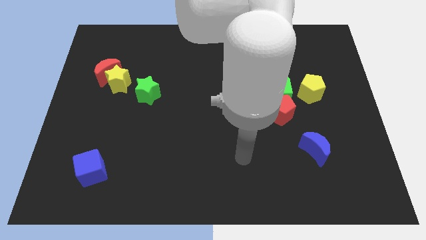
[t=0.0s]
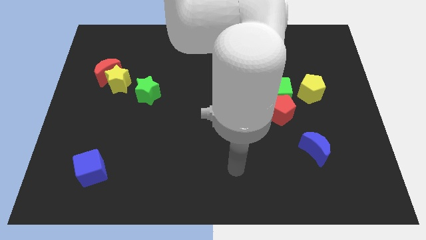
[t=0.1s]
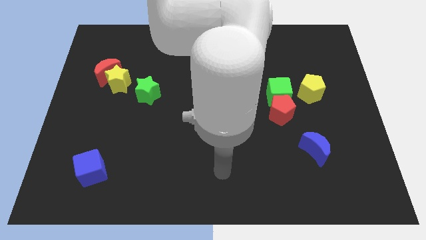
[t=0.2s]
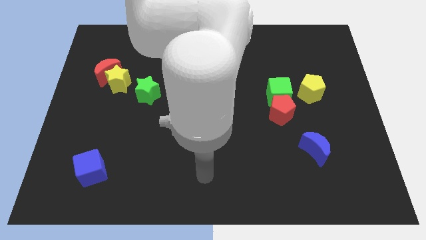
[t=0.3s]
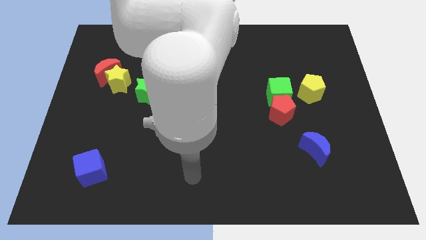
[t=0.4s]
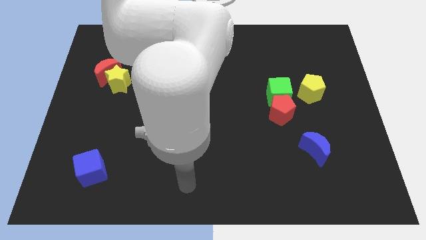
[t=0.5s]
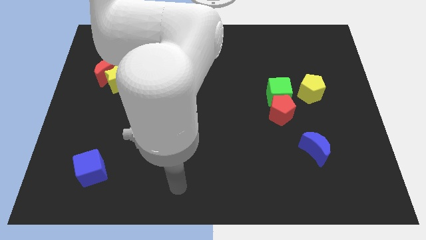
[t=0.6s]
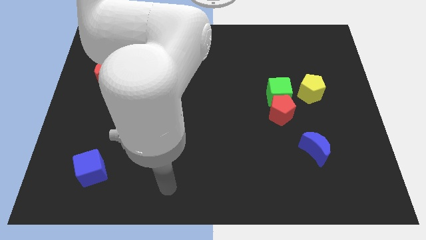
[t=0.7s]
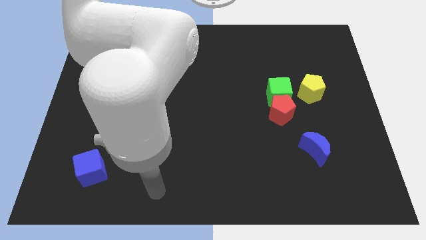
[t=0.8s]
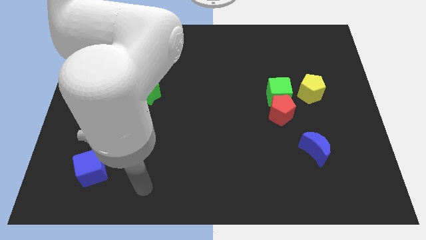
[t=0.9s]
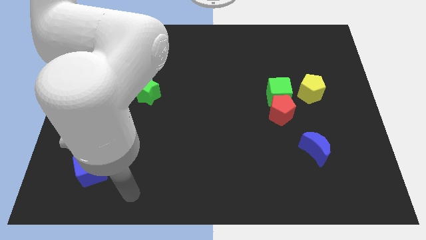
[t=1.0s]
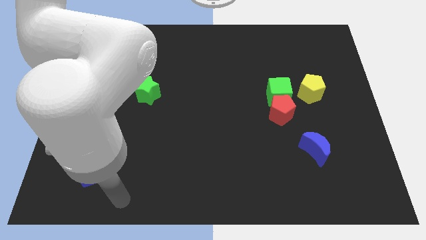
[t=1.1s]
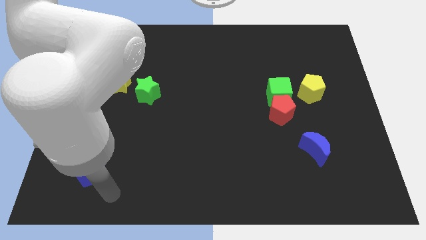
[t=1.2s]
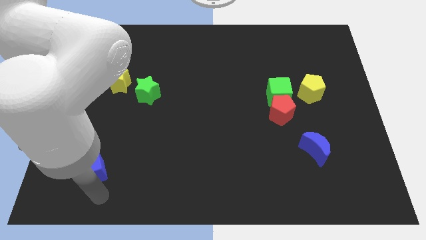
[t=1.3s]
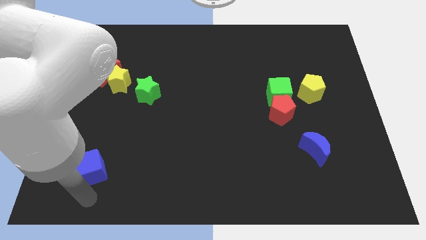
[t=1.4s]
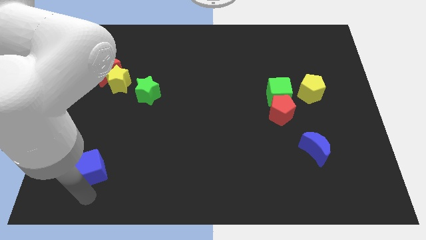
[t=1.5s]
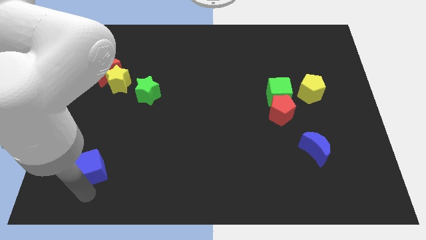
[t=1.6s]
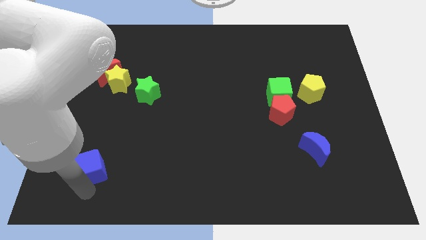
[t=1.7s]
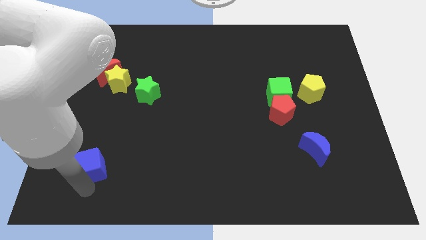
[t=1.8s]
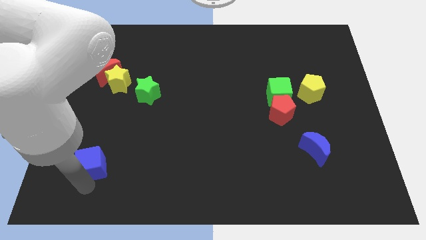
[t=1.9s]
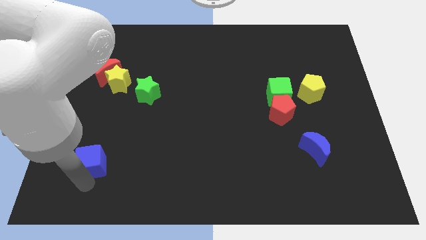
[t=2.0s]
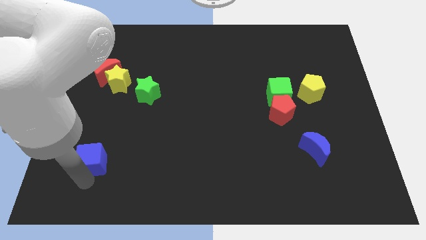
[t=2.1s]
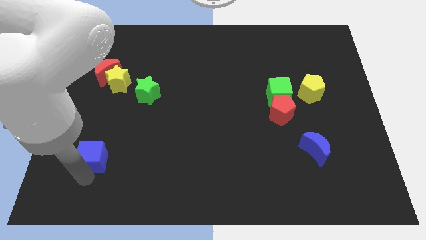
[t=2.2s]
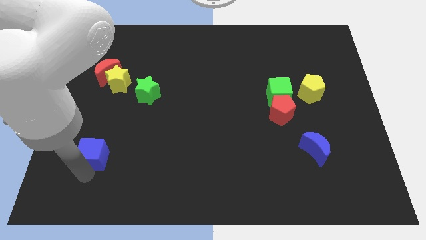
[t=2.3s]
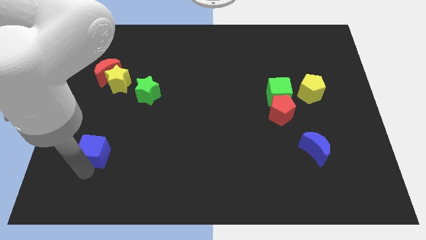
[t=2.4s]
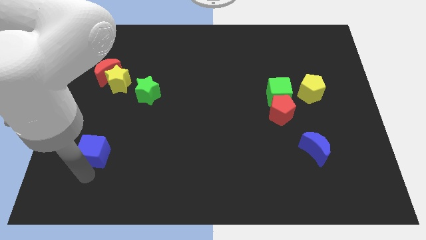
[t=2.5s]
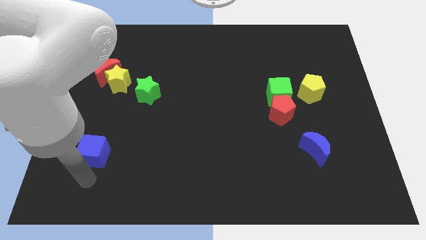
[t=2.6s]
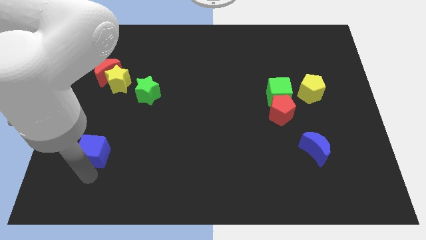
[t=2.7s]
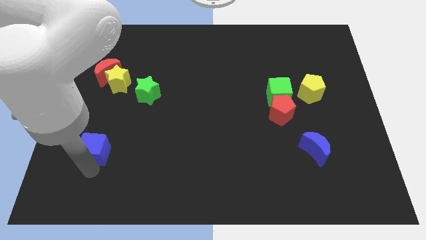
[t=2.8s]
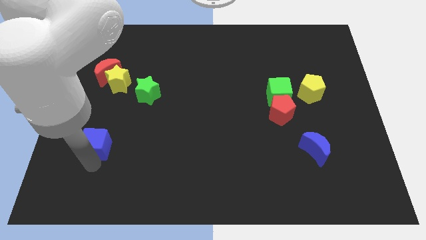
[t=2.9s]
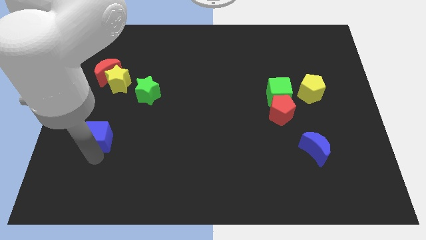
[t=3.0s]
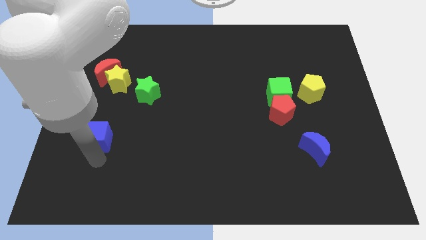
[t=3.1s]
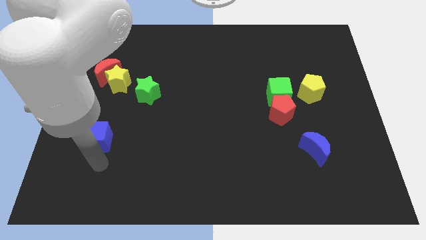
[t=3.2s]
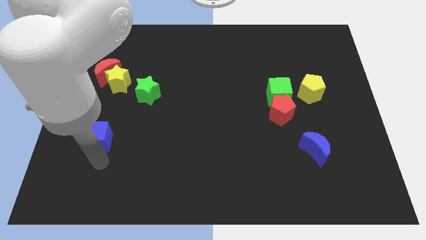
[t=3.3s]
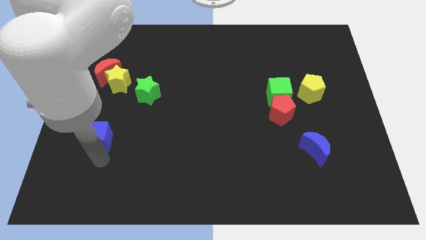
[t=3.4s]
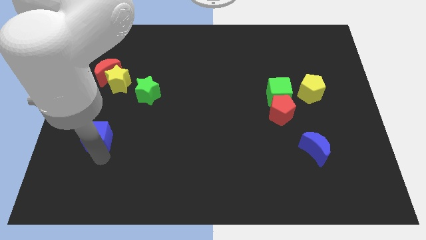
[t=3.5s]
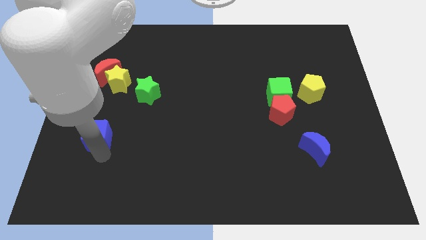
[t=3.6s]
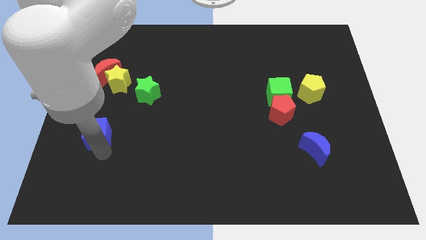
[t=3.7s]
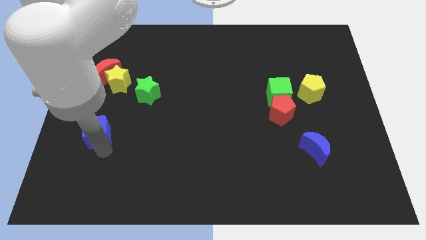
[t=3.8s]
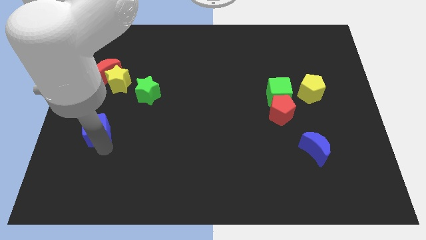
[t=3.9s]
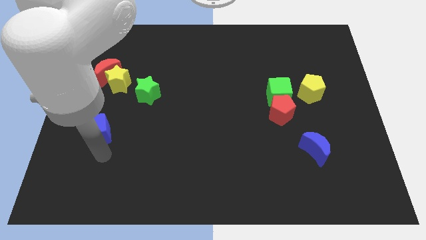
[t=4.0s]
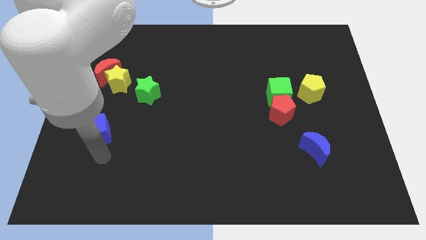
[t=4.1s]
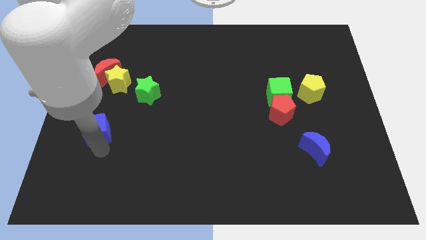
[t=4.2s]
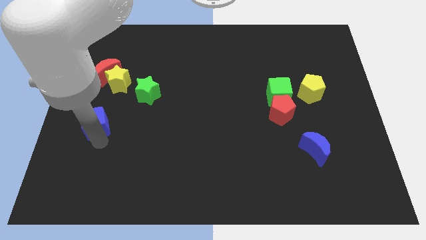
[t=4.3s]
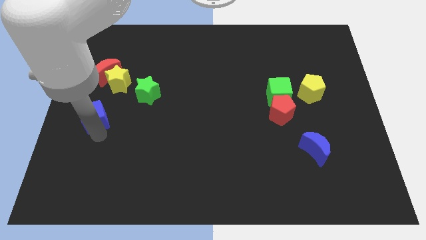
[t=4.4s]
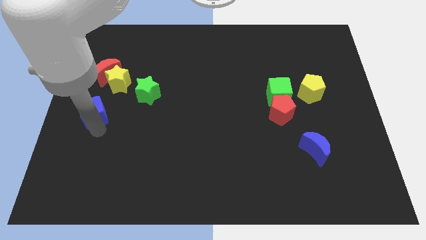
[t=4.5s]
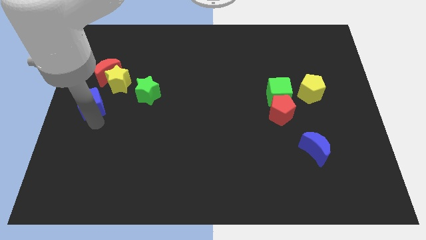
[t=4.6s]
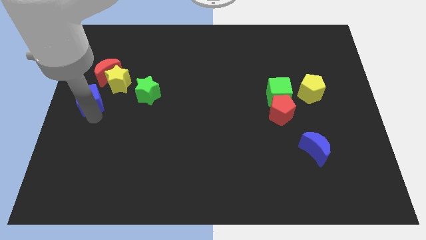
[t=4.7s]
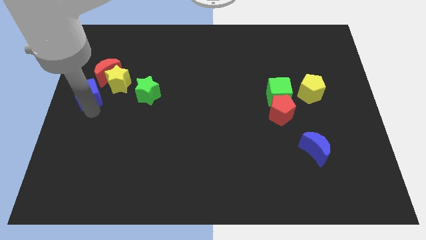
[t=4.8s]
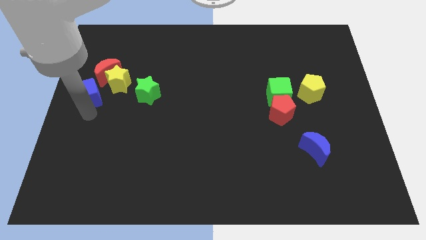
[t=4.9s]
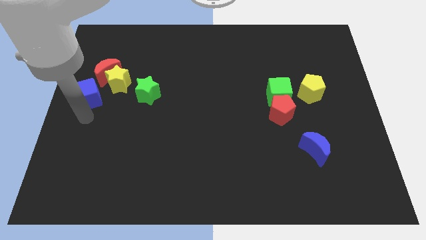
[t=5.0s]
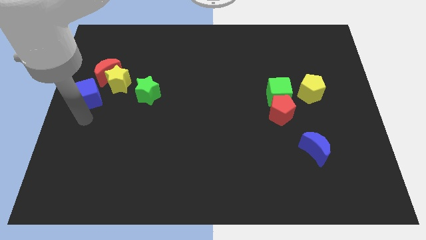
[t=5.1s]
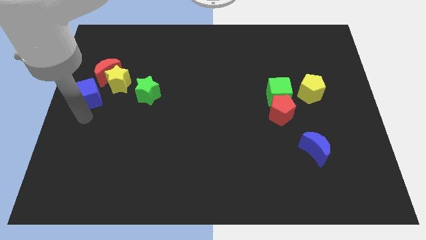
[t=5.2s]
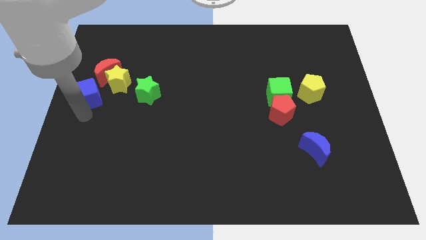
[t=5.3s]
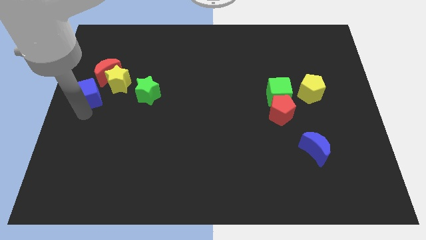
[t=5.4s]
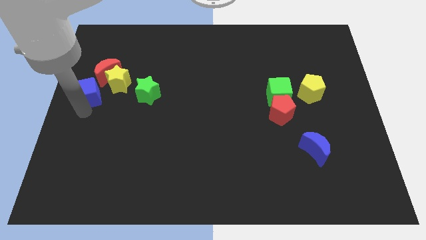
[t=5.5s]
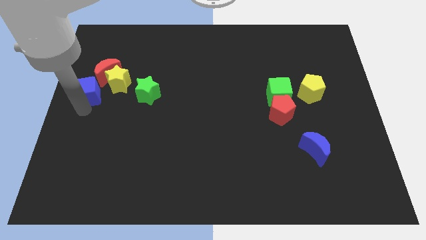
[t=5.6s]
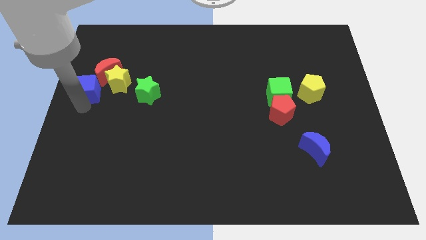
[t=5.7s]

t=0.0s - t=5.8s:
move the blue cube upwards

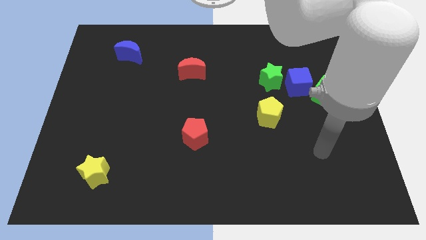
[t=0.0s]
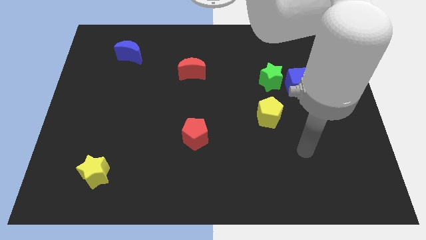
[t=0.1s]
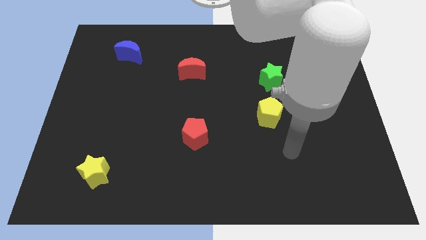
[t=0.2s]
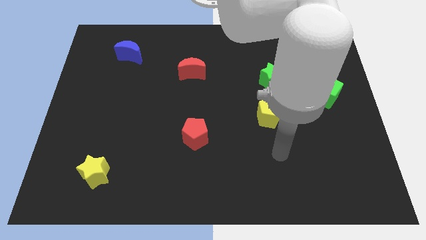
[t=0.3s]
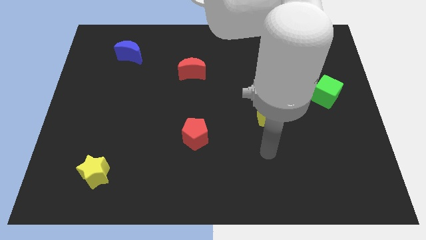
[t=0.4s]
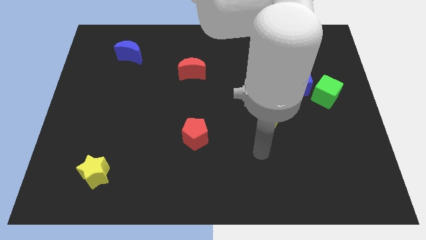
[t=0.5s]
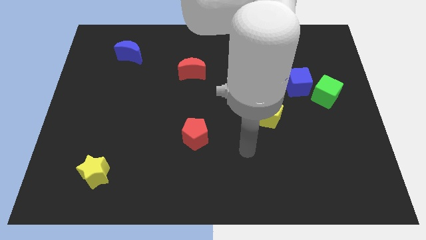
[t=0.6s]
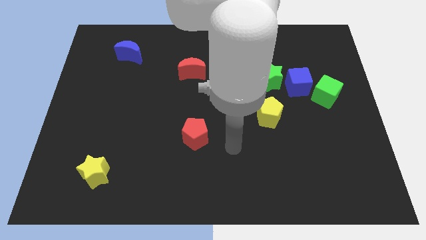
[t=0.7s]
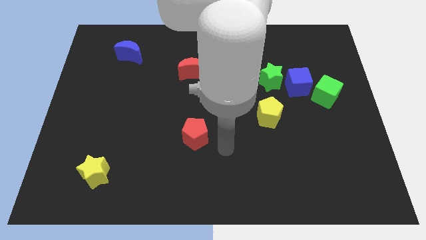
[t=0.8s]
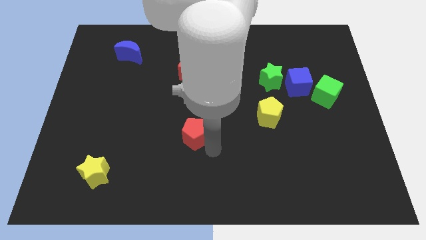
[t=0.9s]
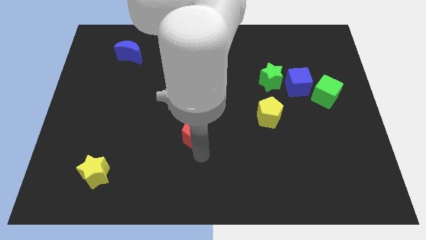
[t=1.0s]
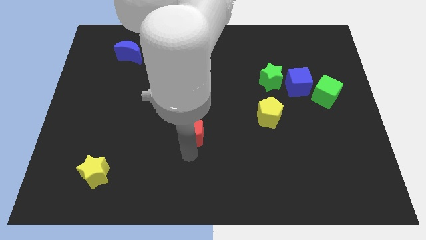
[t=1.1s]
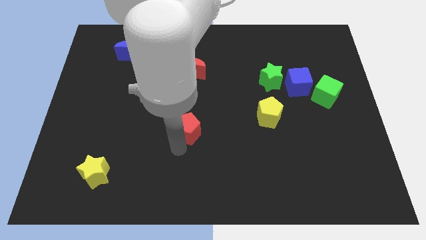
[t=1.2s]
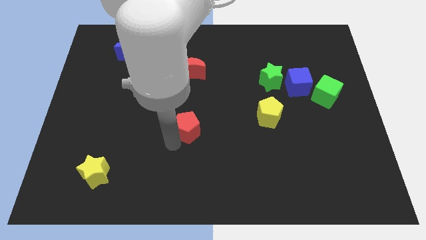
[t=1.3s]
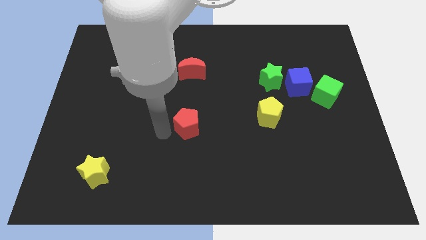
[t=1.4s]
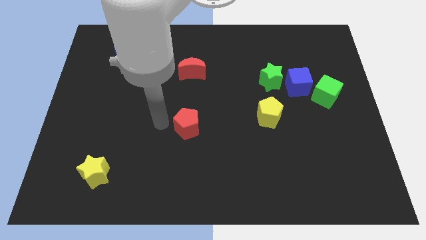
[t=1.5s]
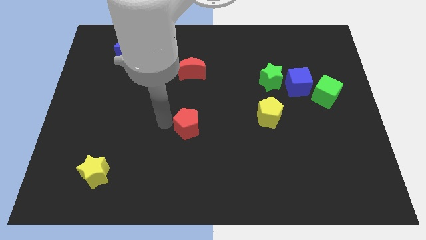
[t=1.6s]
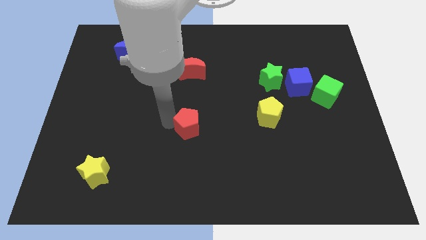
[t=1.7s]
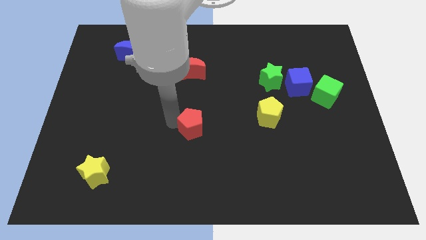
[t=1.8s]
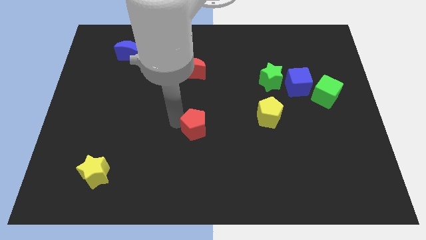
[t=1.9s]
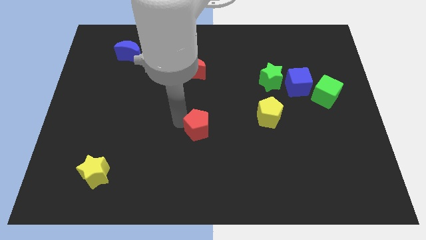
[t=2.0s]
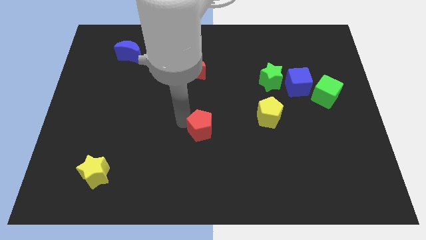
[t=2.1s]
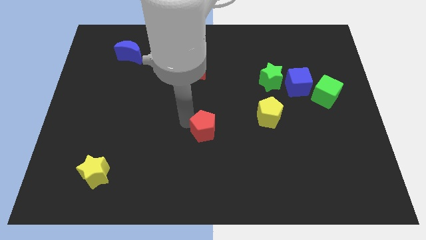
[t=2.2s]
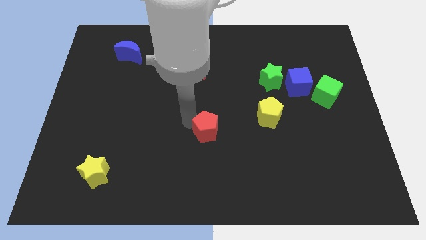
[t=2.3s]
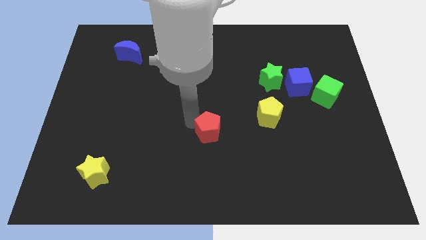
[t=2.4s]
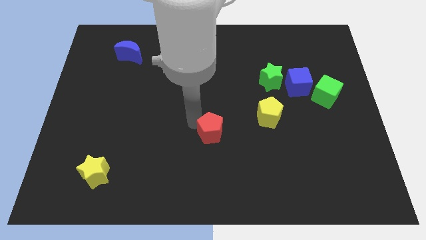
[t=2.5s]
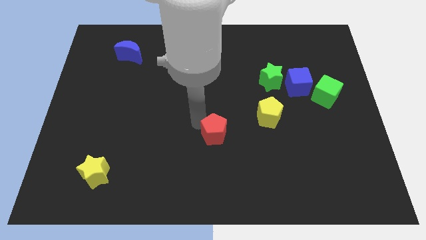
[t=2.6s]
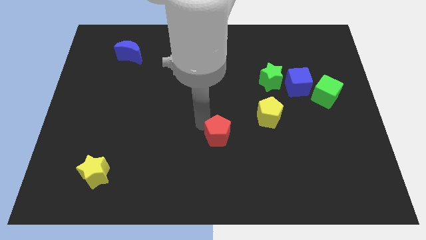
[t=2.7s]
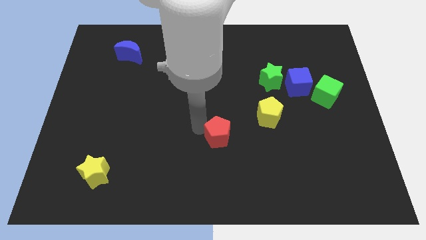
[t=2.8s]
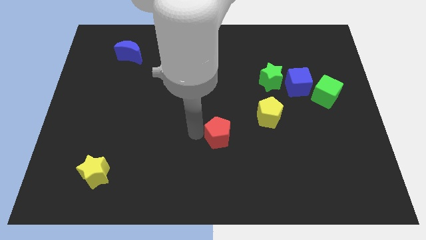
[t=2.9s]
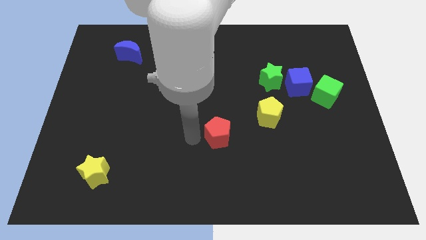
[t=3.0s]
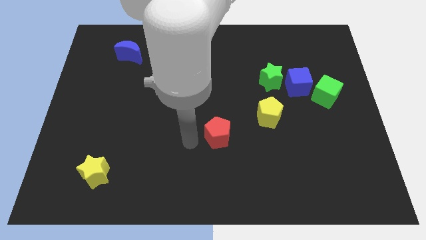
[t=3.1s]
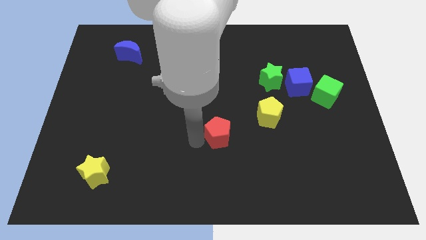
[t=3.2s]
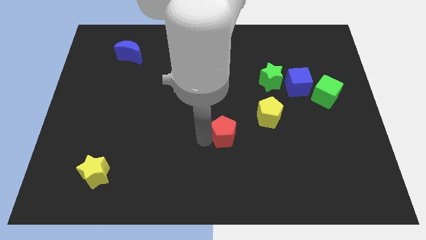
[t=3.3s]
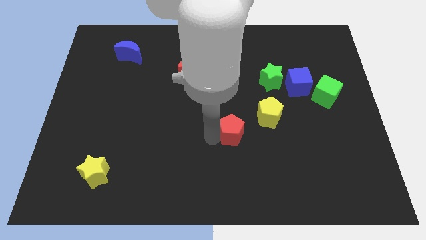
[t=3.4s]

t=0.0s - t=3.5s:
push the red pentagon somewhat right
